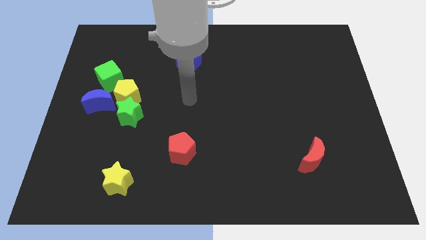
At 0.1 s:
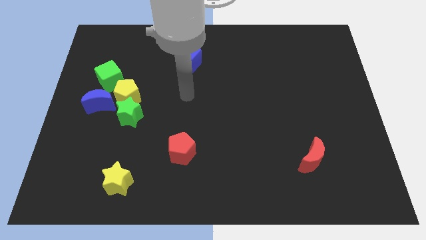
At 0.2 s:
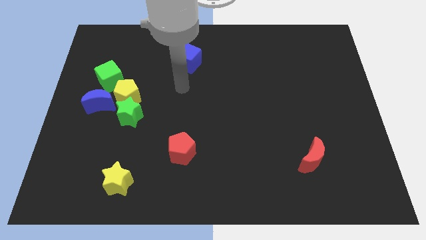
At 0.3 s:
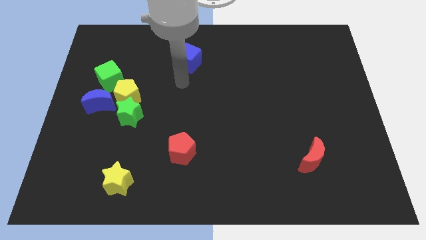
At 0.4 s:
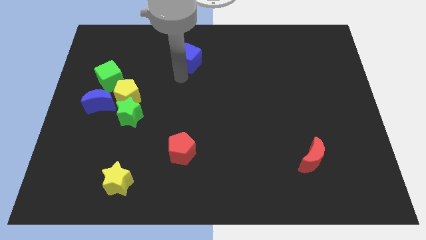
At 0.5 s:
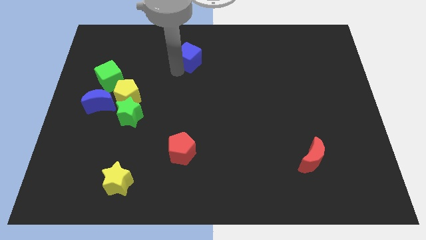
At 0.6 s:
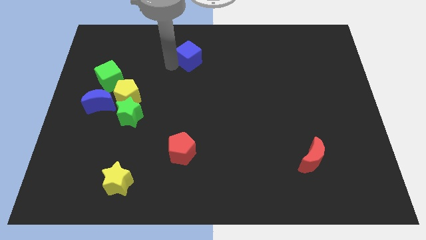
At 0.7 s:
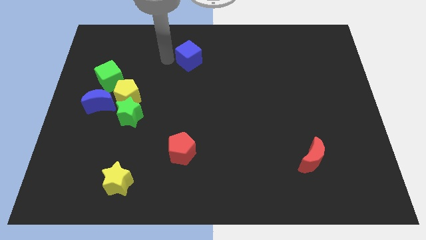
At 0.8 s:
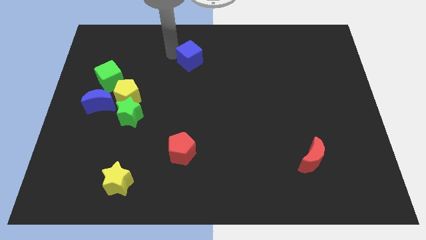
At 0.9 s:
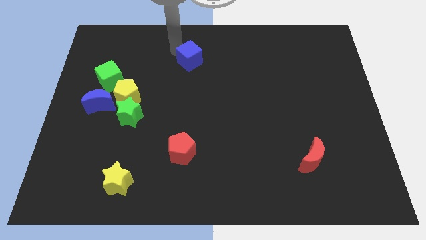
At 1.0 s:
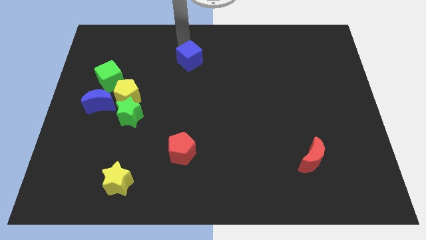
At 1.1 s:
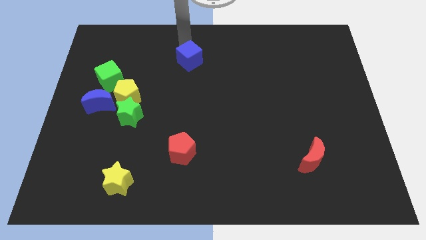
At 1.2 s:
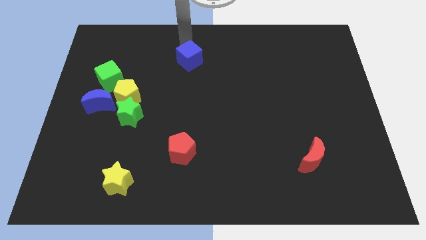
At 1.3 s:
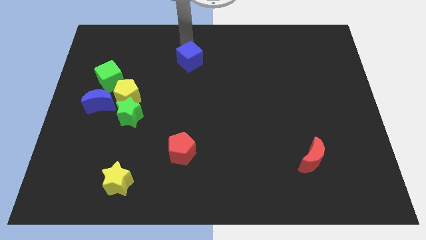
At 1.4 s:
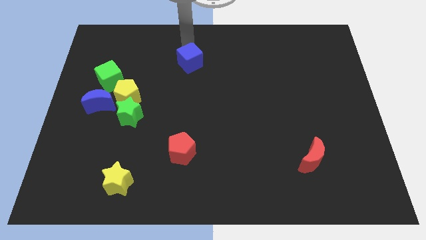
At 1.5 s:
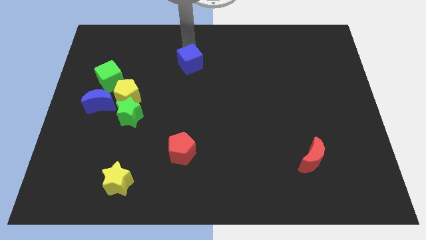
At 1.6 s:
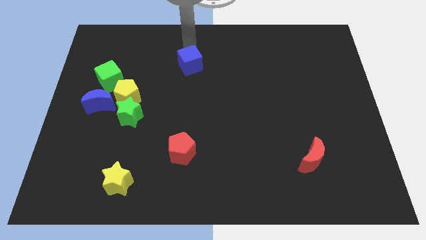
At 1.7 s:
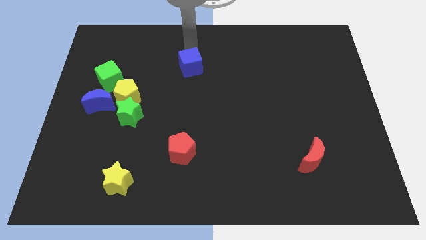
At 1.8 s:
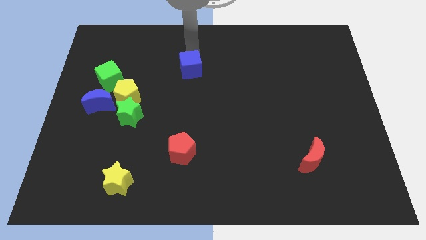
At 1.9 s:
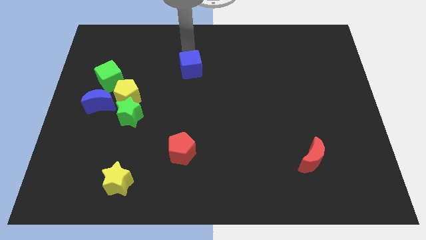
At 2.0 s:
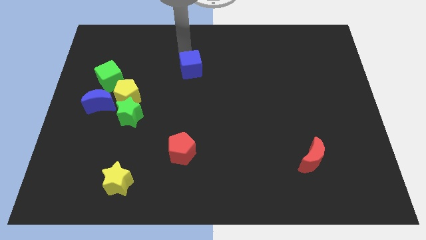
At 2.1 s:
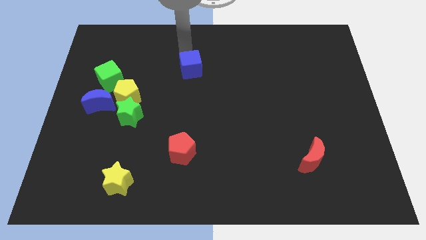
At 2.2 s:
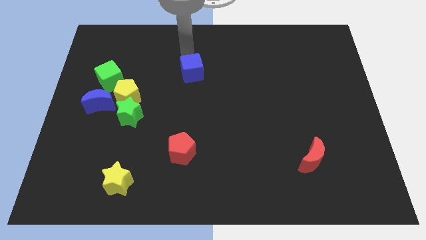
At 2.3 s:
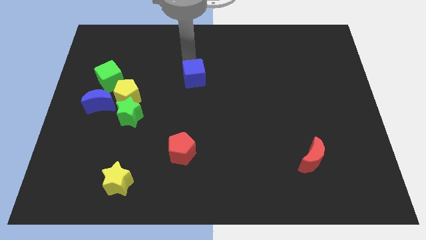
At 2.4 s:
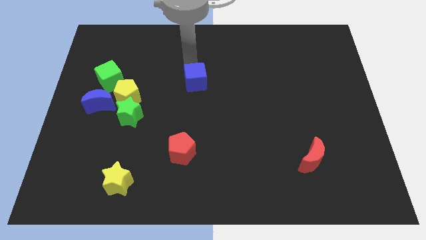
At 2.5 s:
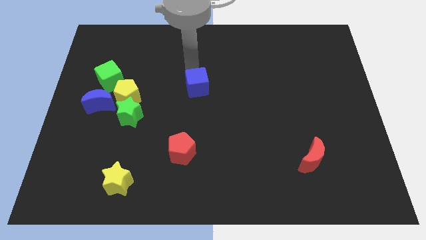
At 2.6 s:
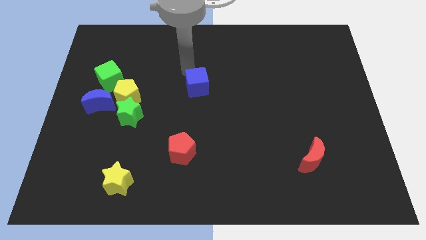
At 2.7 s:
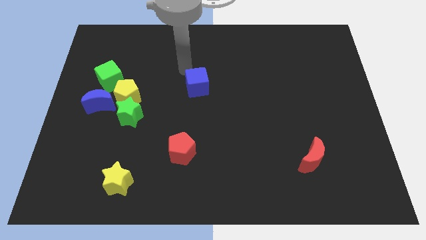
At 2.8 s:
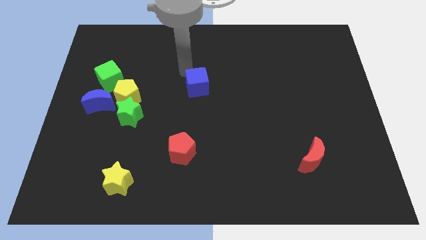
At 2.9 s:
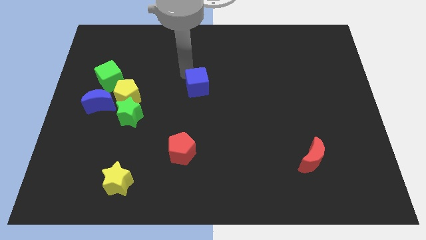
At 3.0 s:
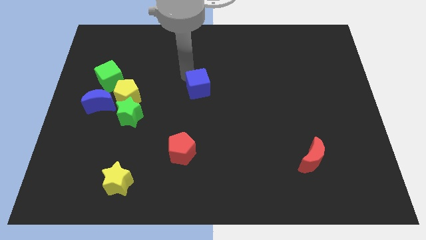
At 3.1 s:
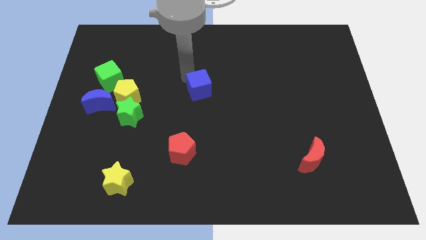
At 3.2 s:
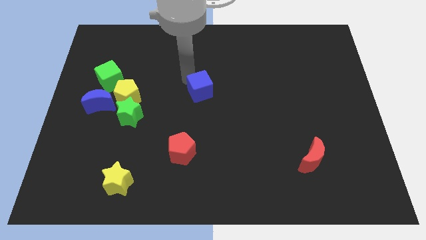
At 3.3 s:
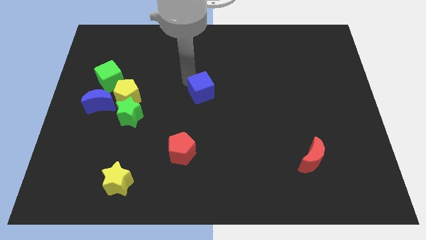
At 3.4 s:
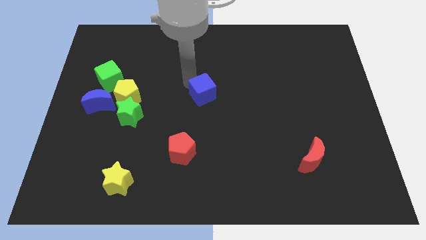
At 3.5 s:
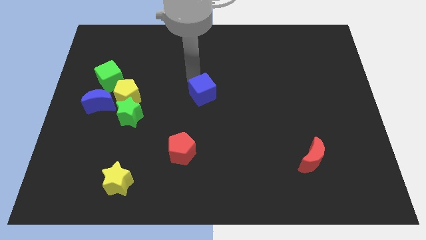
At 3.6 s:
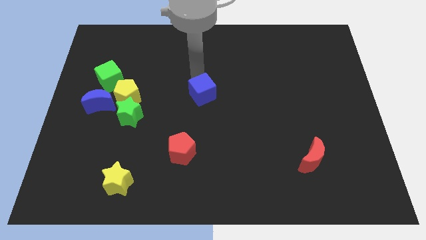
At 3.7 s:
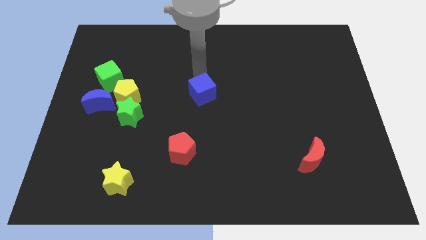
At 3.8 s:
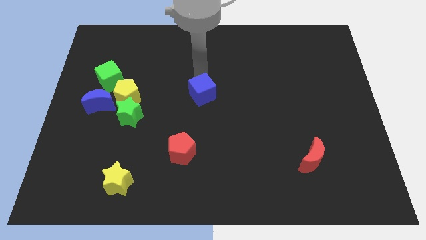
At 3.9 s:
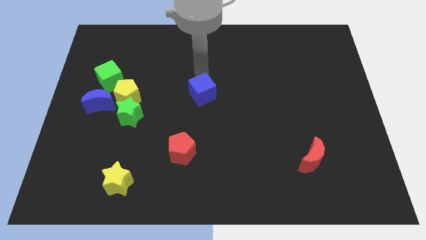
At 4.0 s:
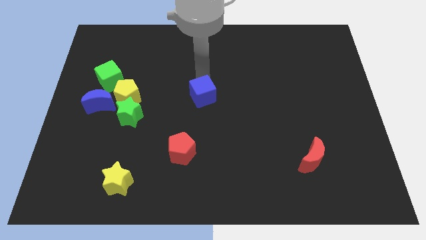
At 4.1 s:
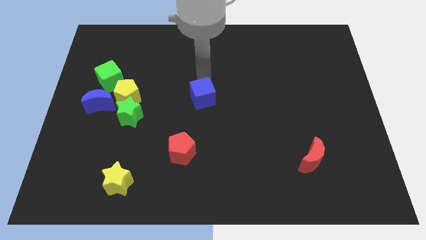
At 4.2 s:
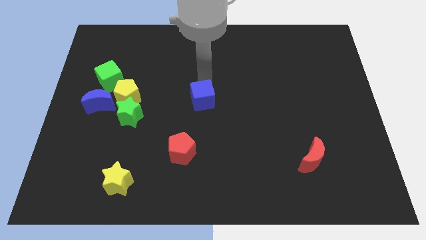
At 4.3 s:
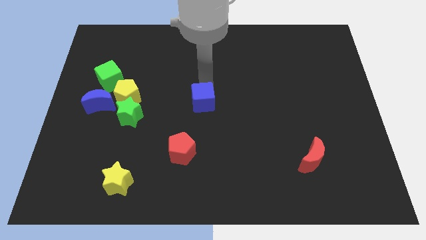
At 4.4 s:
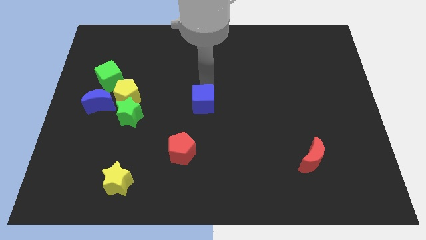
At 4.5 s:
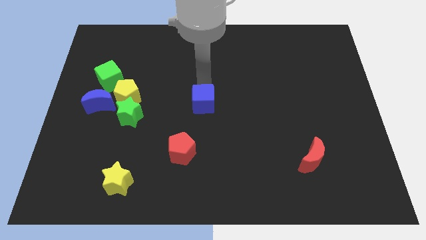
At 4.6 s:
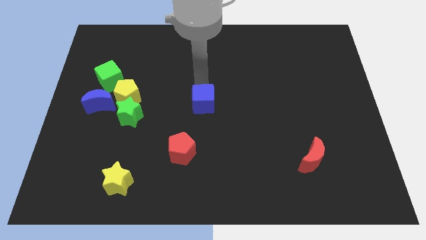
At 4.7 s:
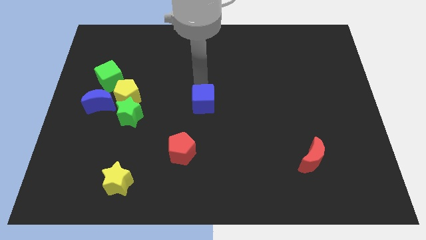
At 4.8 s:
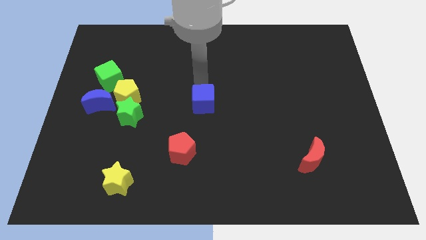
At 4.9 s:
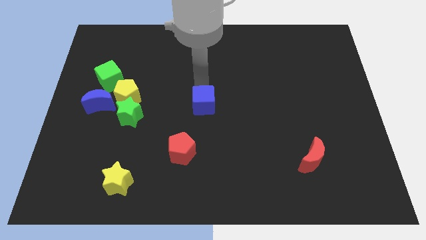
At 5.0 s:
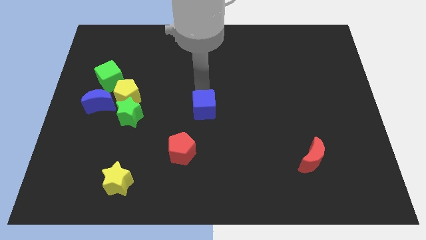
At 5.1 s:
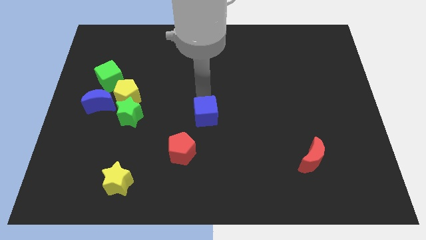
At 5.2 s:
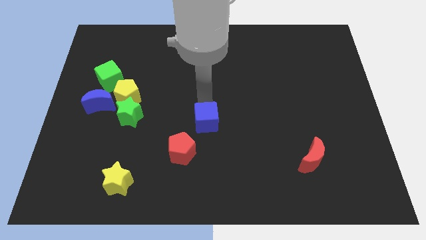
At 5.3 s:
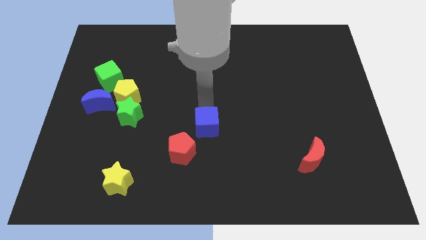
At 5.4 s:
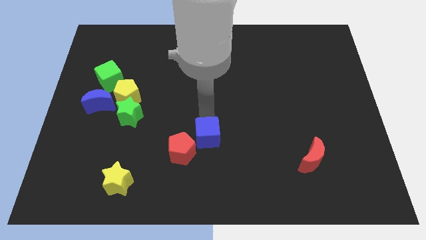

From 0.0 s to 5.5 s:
move the blue cube downwards

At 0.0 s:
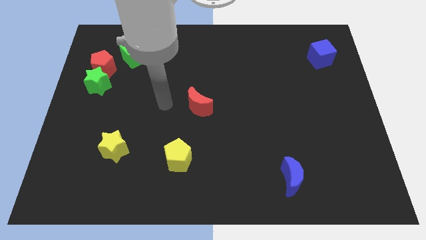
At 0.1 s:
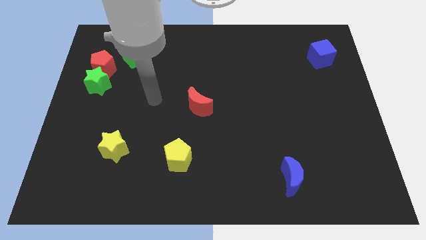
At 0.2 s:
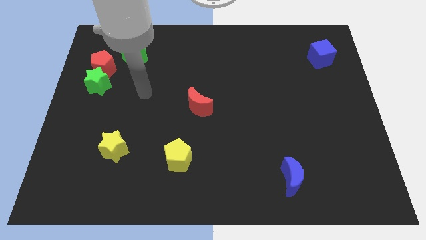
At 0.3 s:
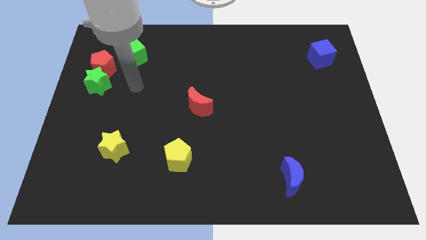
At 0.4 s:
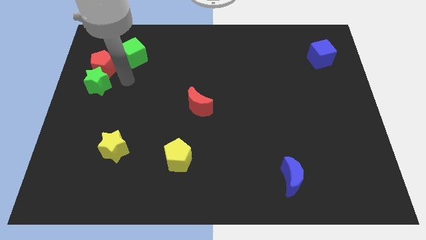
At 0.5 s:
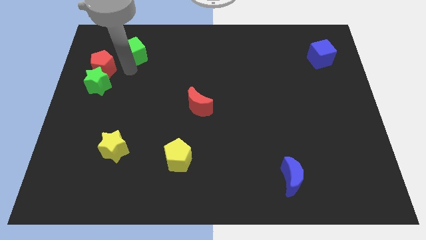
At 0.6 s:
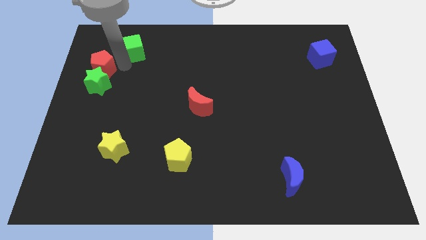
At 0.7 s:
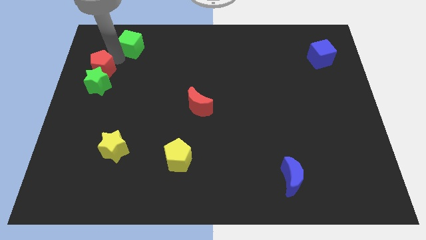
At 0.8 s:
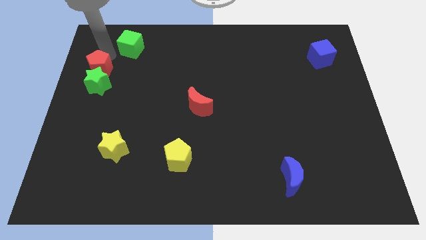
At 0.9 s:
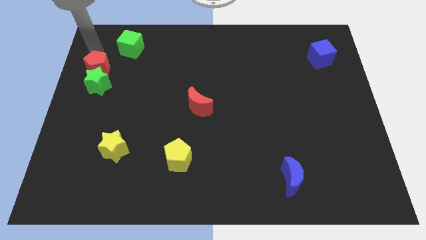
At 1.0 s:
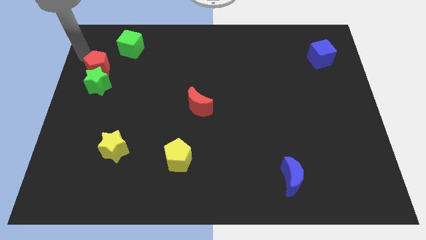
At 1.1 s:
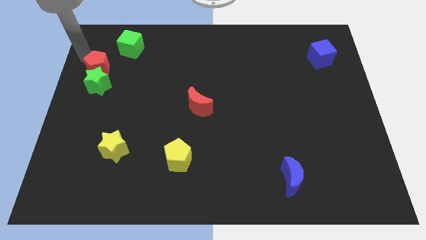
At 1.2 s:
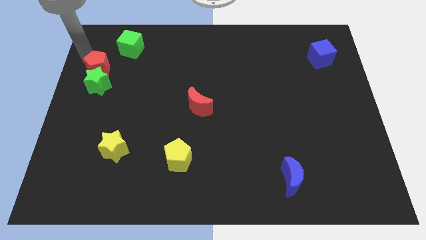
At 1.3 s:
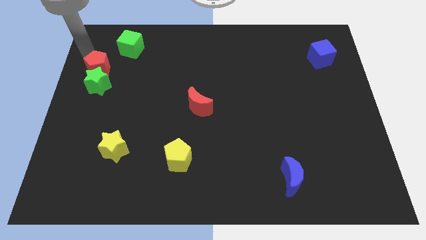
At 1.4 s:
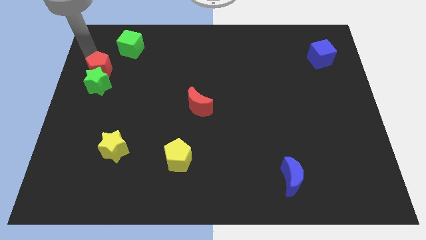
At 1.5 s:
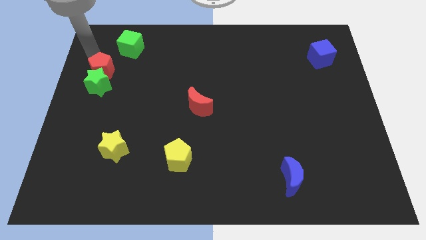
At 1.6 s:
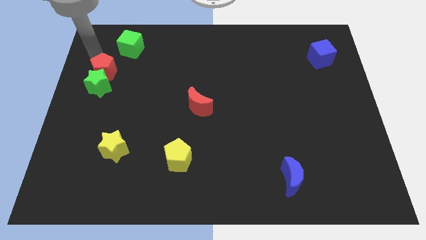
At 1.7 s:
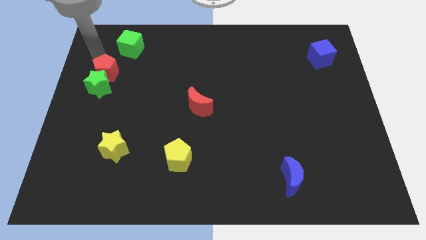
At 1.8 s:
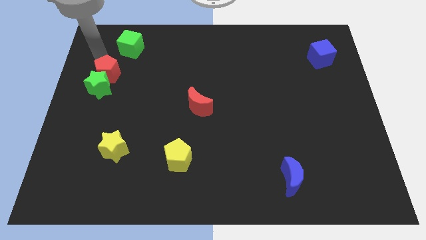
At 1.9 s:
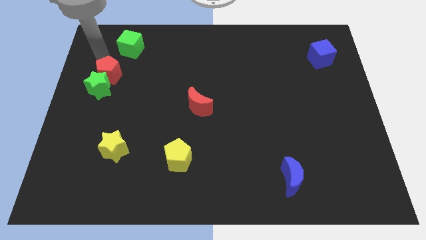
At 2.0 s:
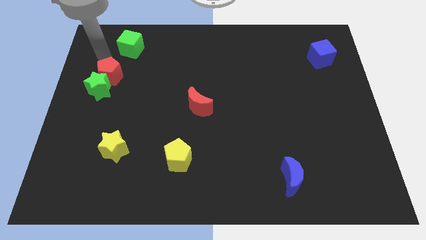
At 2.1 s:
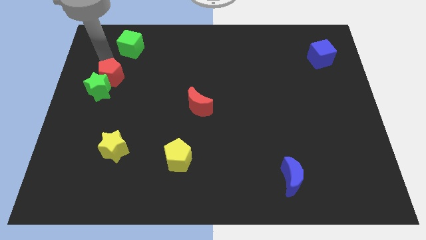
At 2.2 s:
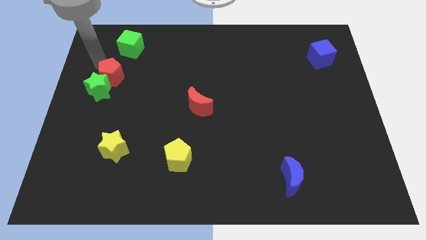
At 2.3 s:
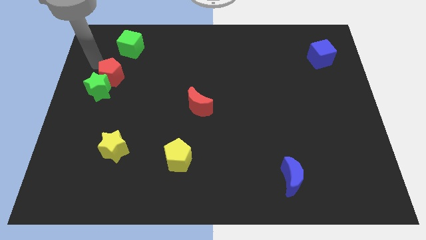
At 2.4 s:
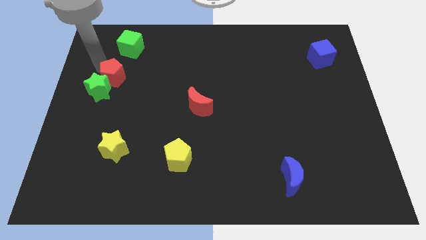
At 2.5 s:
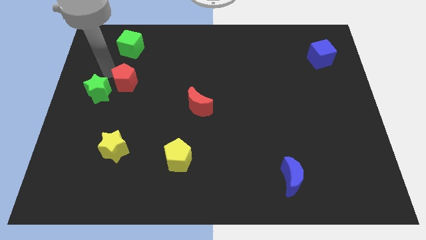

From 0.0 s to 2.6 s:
slightly move the red pentagon down and right

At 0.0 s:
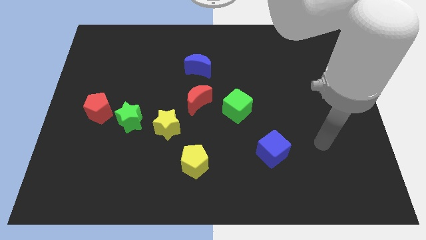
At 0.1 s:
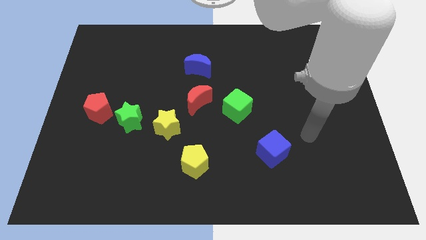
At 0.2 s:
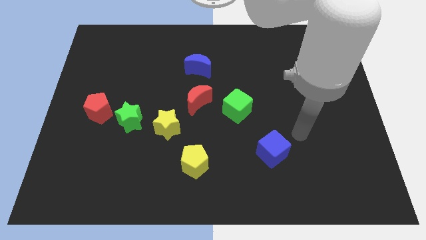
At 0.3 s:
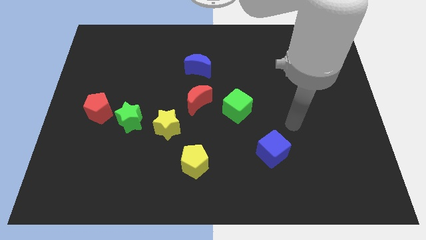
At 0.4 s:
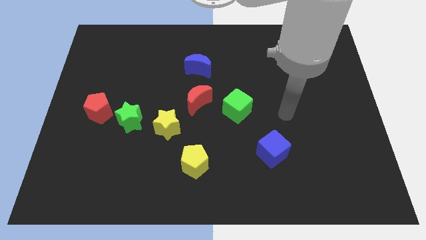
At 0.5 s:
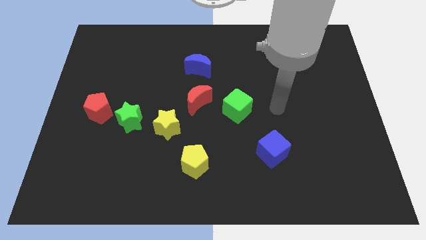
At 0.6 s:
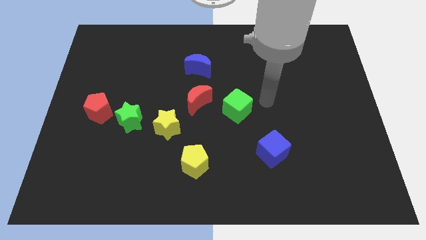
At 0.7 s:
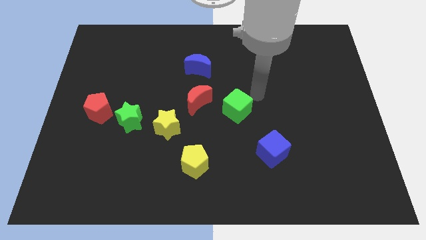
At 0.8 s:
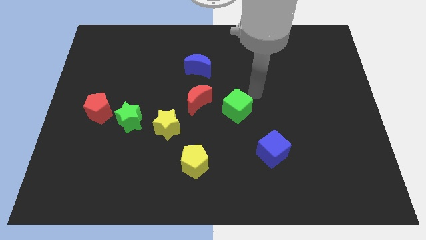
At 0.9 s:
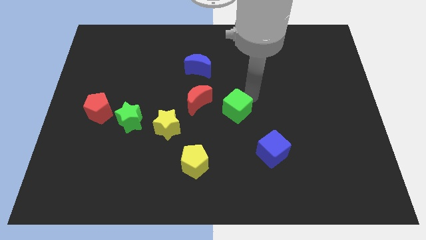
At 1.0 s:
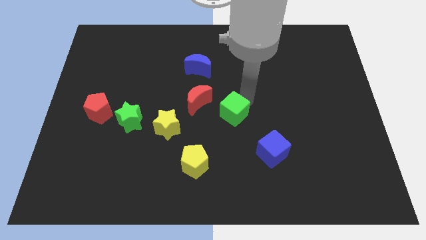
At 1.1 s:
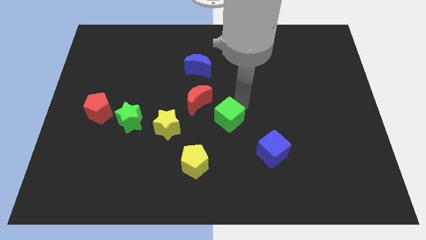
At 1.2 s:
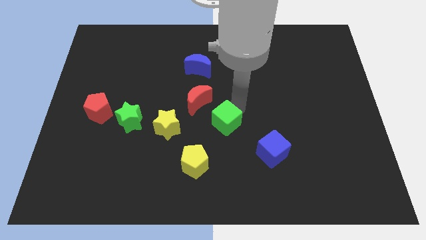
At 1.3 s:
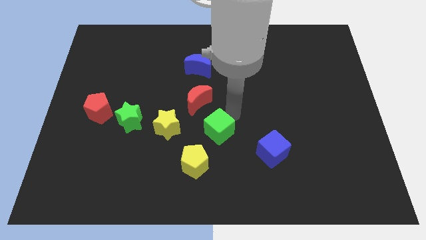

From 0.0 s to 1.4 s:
push the green cube a bit downwards and then to the left
